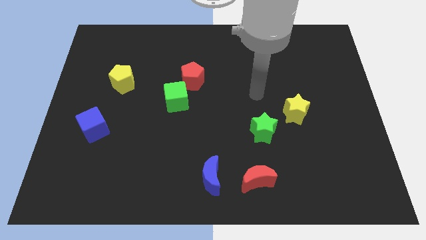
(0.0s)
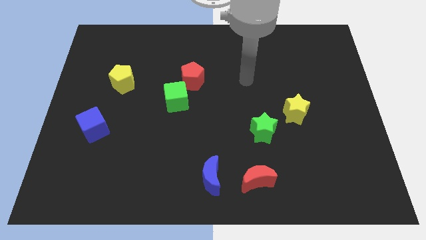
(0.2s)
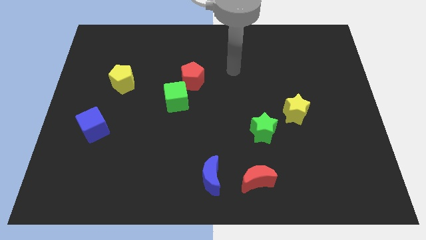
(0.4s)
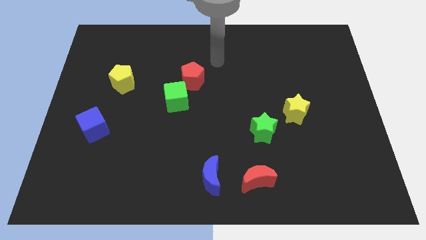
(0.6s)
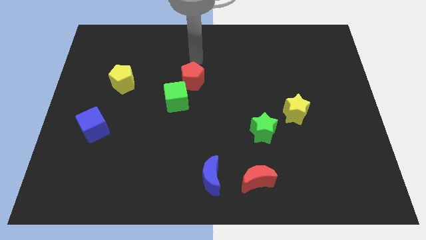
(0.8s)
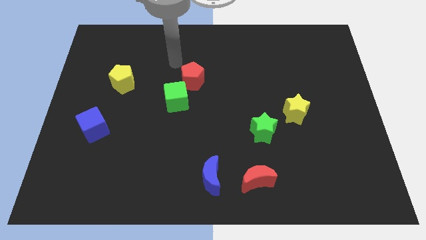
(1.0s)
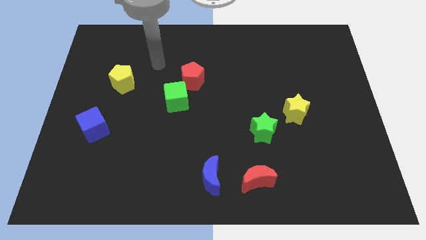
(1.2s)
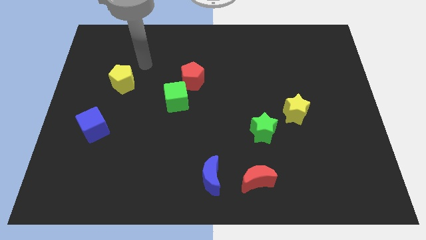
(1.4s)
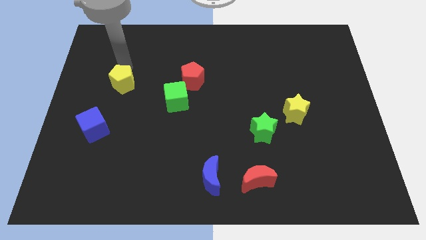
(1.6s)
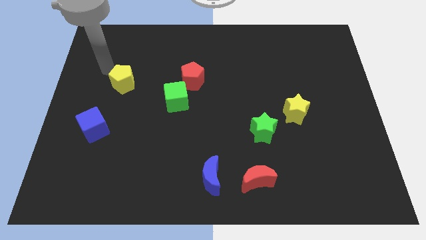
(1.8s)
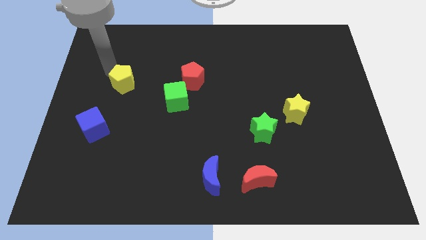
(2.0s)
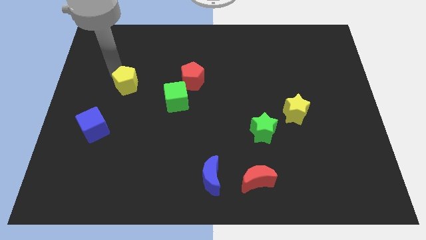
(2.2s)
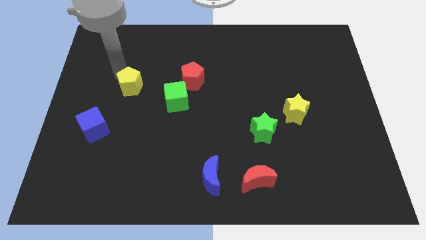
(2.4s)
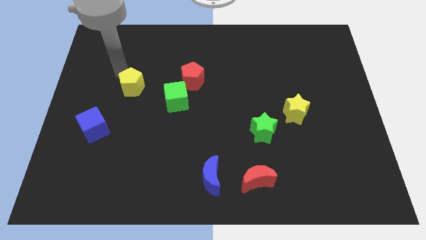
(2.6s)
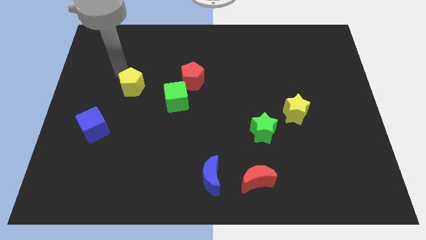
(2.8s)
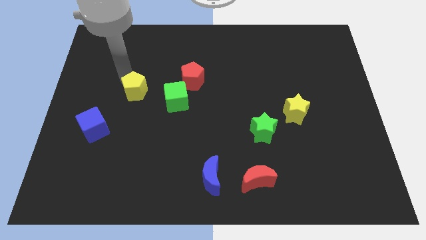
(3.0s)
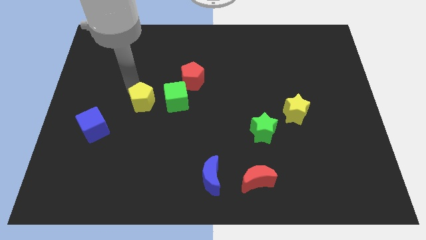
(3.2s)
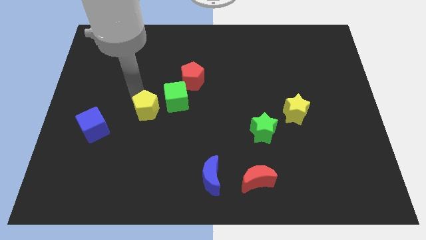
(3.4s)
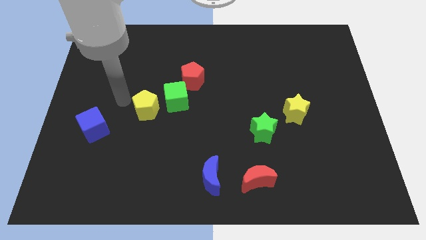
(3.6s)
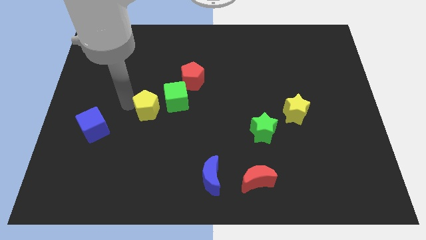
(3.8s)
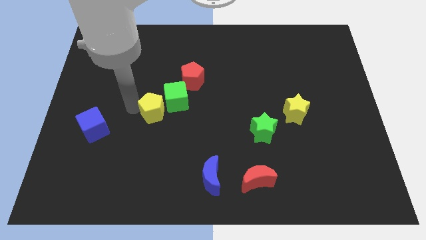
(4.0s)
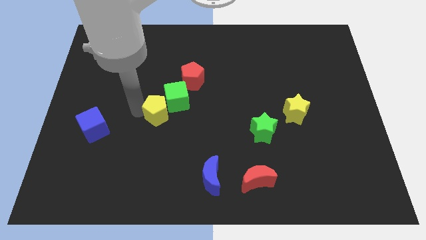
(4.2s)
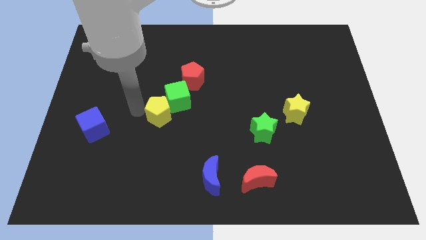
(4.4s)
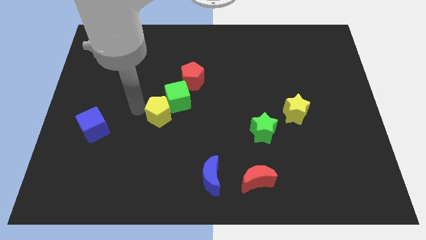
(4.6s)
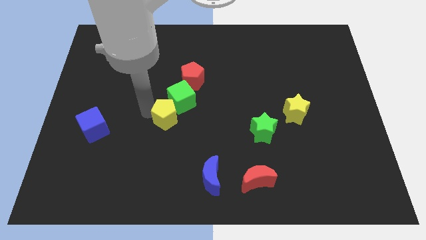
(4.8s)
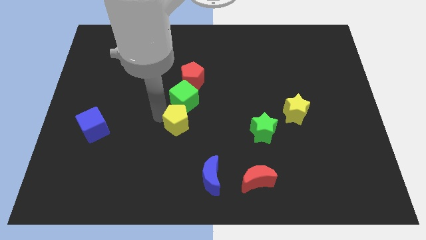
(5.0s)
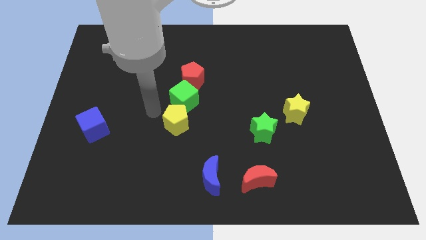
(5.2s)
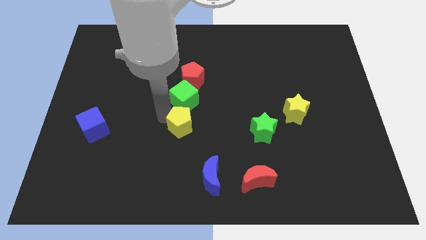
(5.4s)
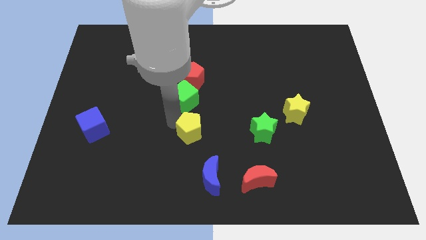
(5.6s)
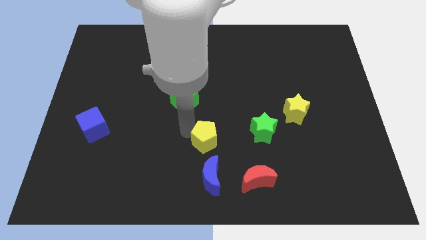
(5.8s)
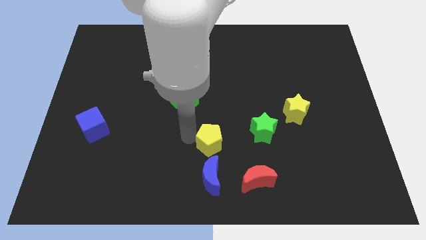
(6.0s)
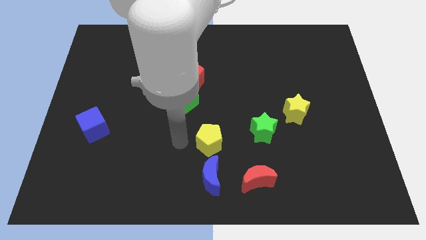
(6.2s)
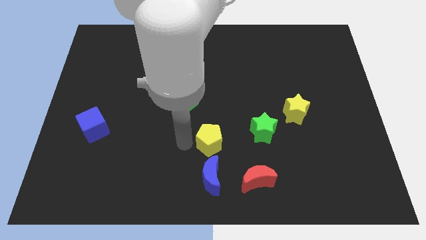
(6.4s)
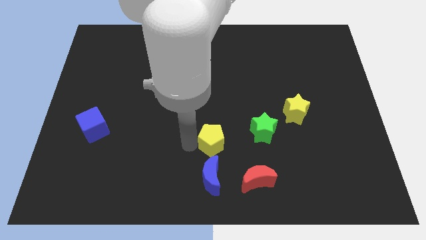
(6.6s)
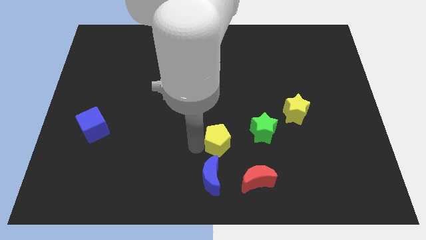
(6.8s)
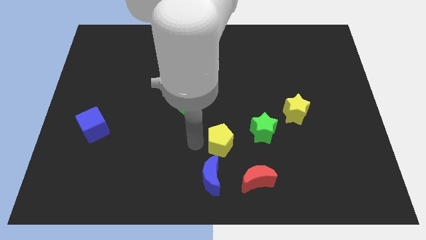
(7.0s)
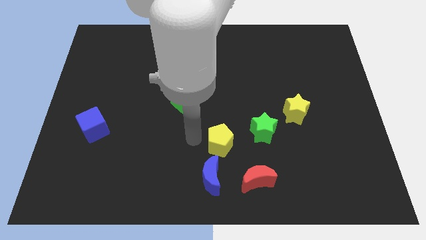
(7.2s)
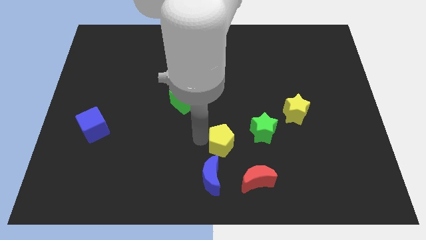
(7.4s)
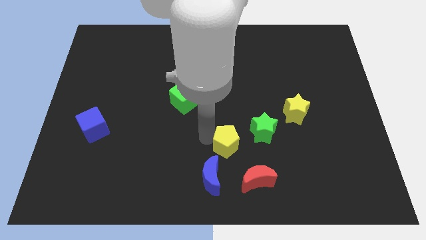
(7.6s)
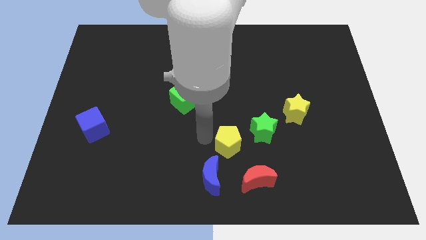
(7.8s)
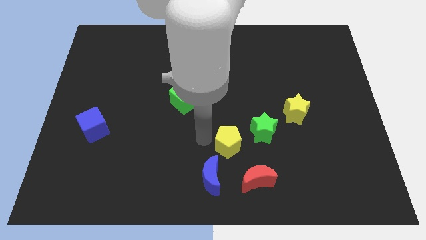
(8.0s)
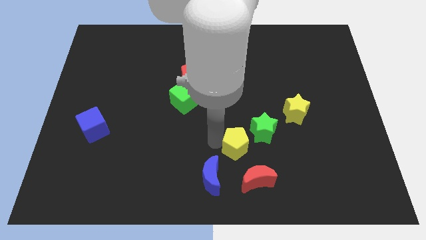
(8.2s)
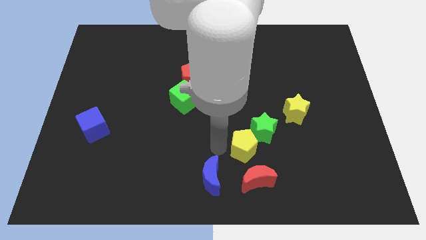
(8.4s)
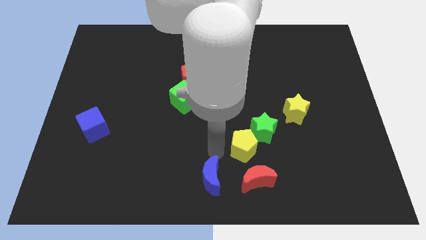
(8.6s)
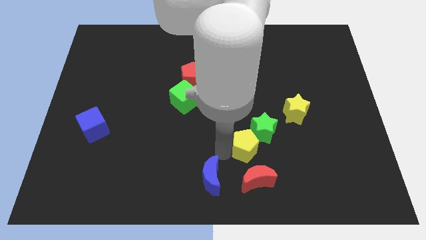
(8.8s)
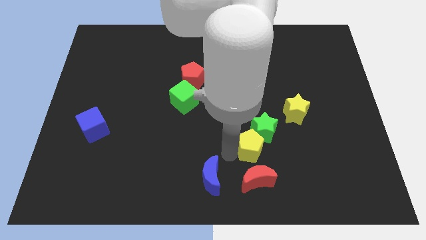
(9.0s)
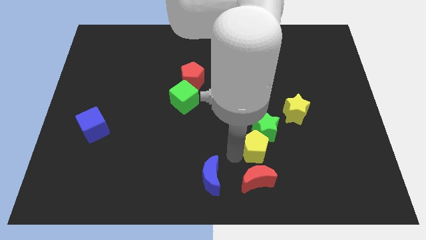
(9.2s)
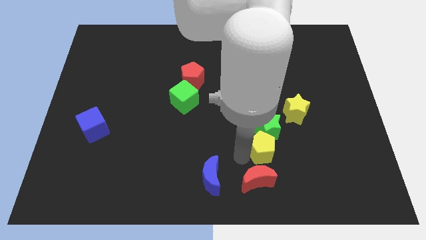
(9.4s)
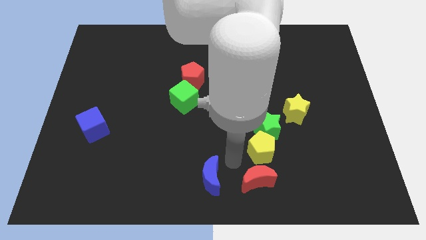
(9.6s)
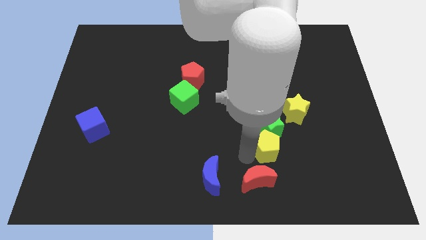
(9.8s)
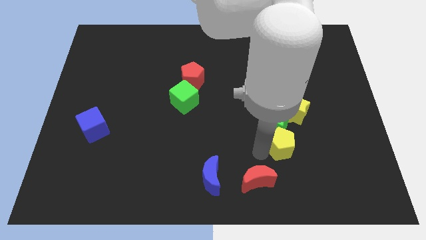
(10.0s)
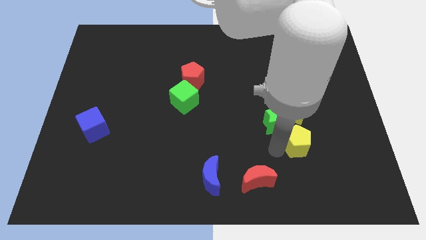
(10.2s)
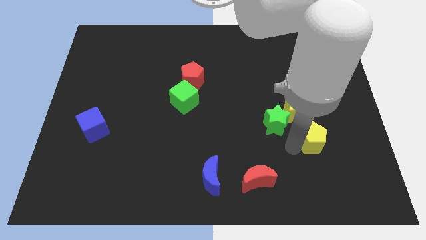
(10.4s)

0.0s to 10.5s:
move the yellow pentagon to the bottom right of the yellow star

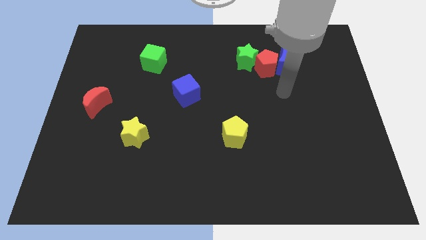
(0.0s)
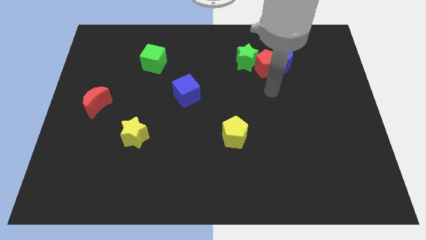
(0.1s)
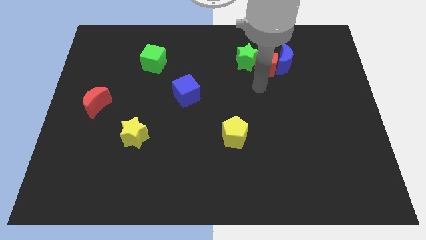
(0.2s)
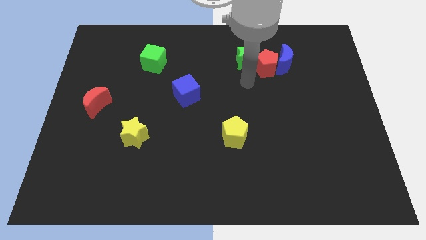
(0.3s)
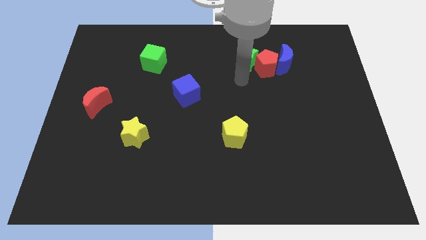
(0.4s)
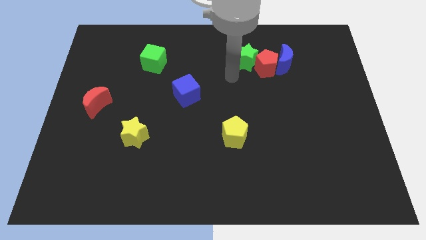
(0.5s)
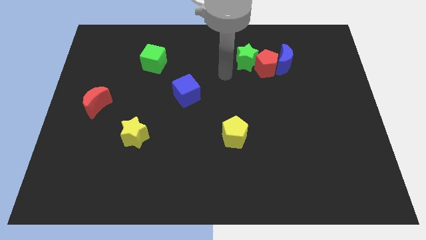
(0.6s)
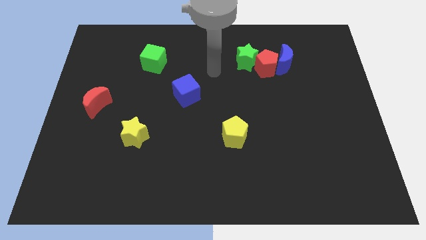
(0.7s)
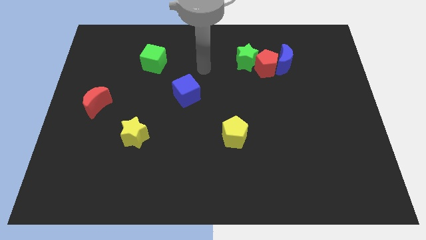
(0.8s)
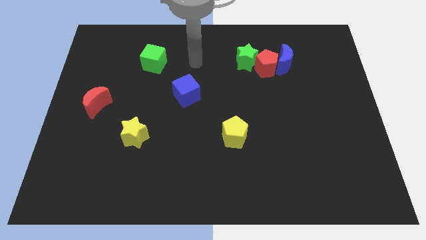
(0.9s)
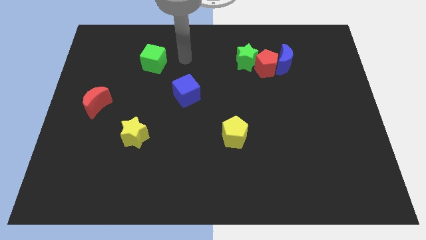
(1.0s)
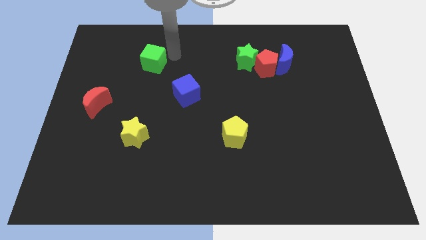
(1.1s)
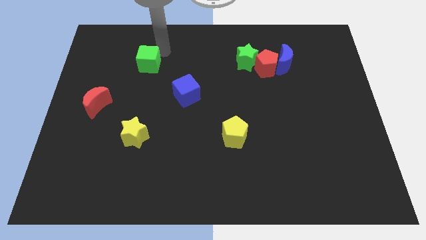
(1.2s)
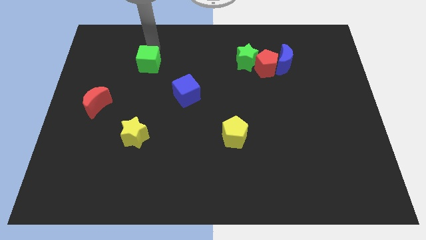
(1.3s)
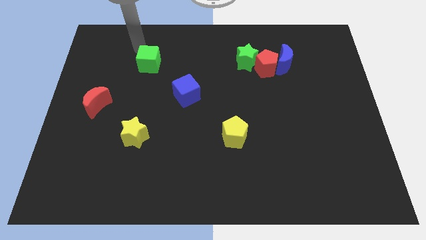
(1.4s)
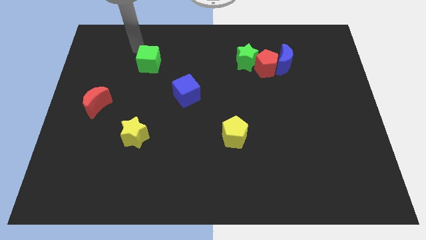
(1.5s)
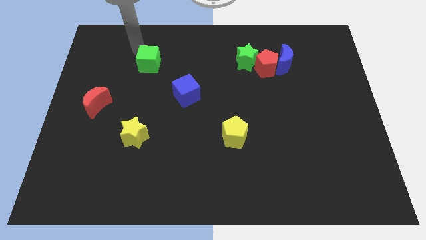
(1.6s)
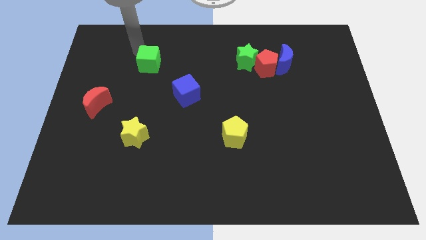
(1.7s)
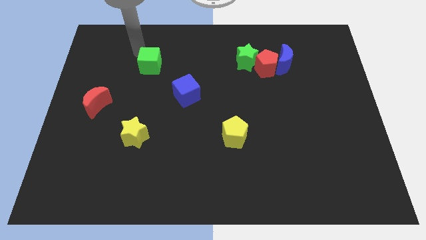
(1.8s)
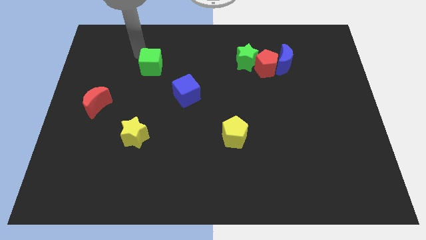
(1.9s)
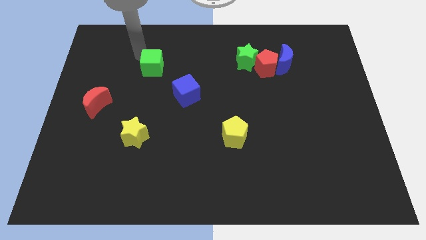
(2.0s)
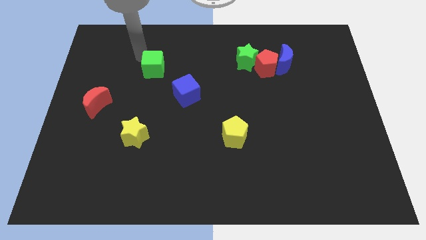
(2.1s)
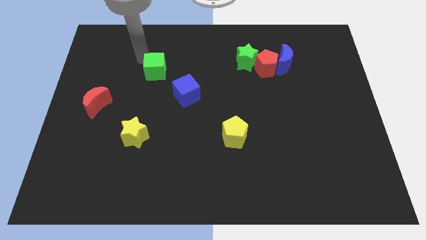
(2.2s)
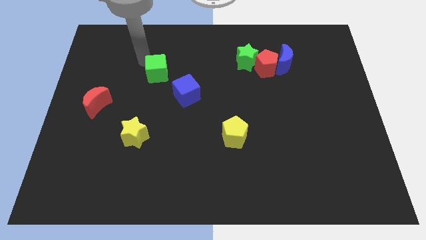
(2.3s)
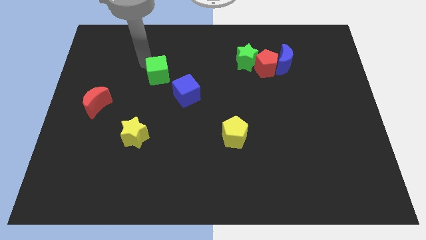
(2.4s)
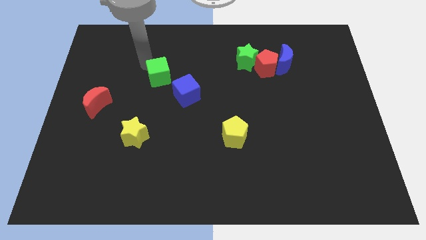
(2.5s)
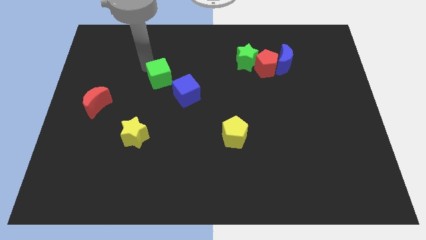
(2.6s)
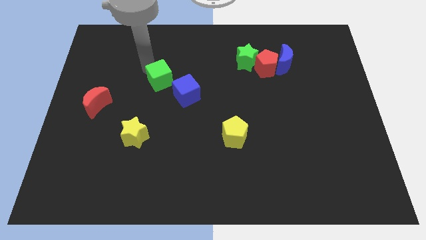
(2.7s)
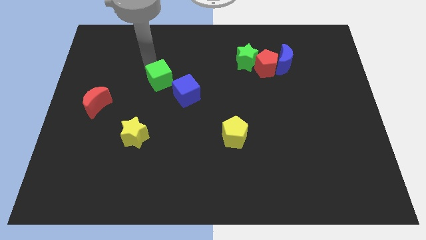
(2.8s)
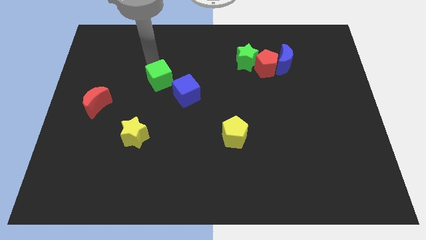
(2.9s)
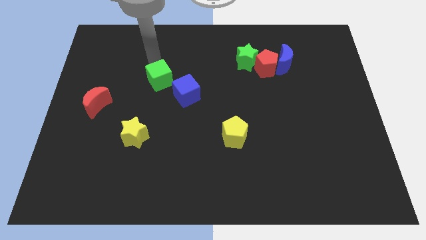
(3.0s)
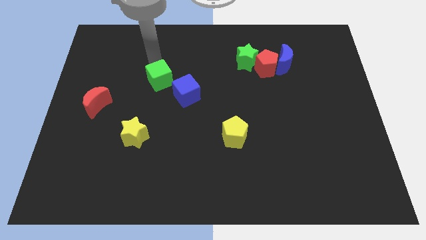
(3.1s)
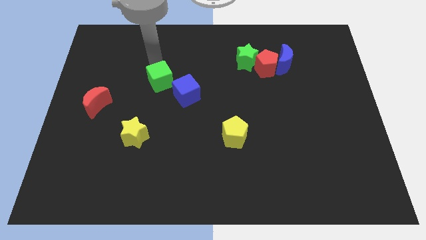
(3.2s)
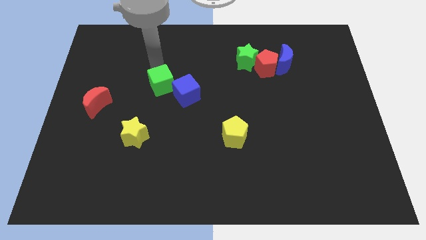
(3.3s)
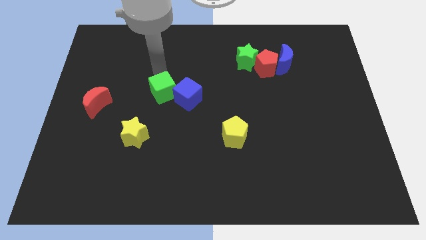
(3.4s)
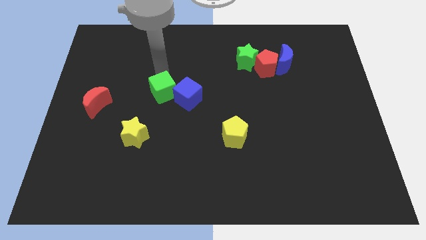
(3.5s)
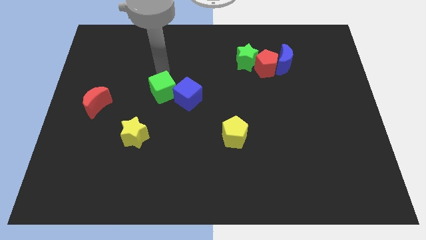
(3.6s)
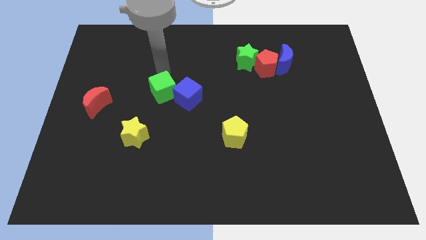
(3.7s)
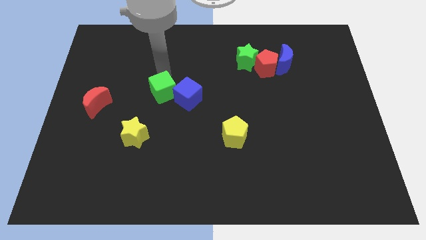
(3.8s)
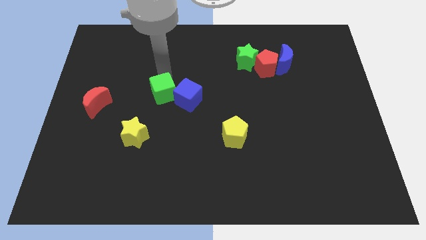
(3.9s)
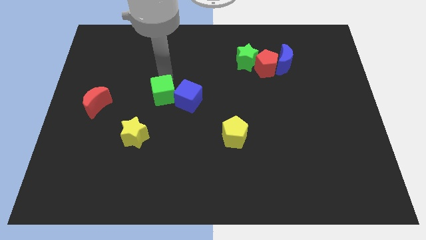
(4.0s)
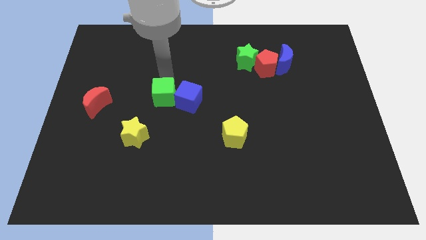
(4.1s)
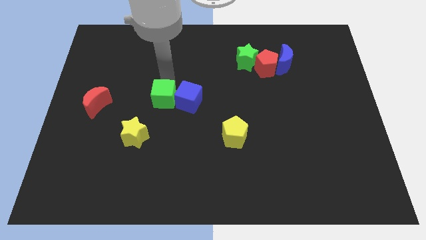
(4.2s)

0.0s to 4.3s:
push the green cube diagonally down and to the left of the blue cube
